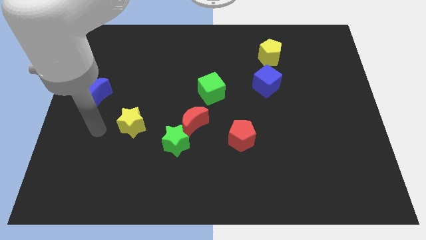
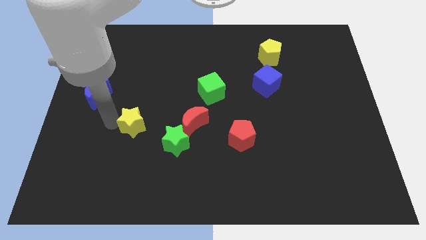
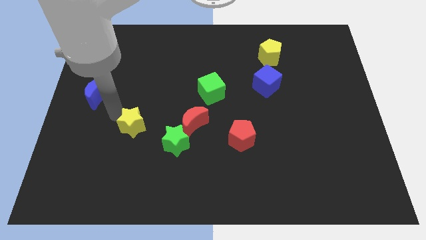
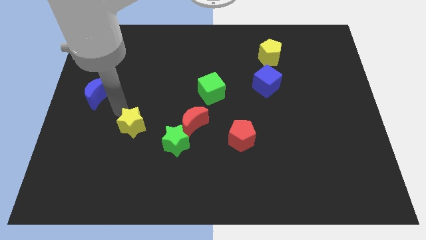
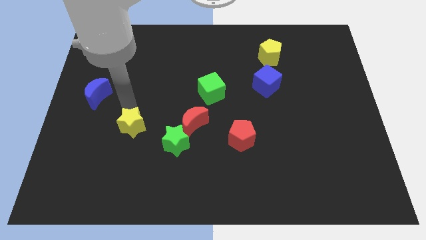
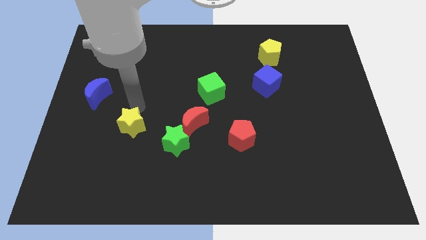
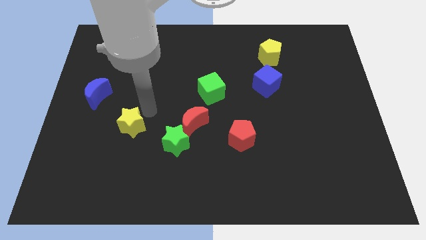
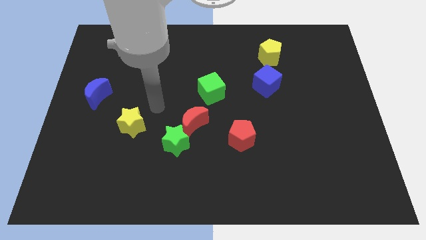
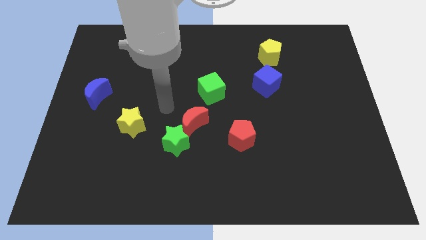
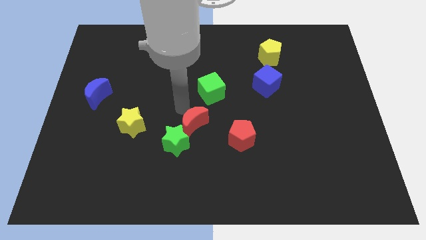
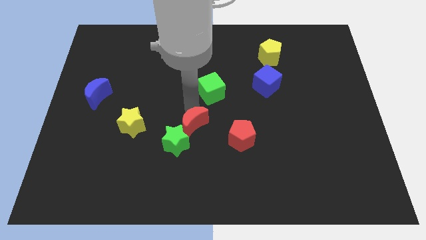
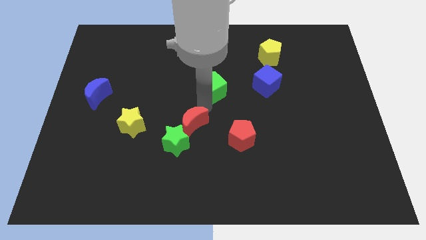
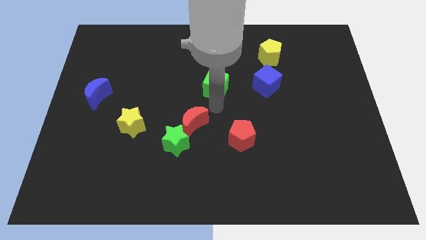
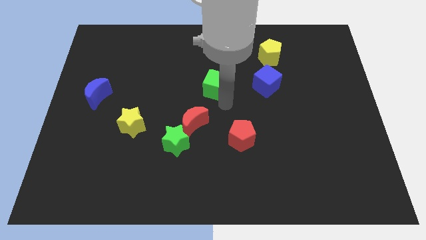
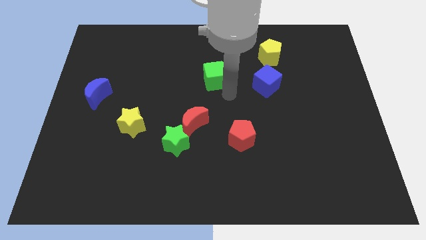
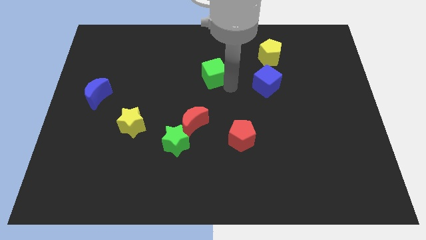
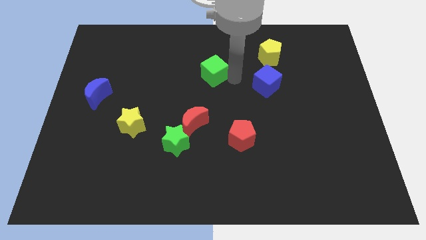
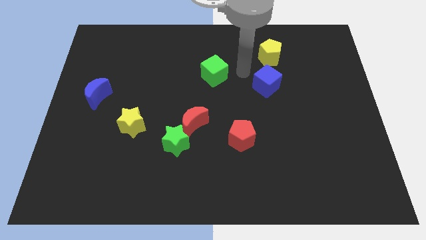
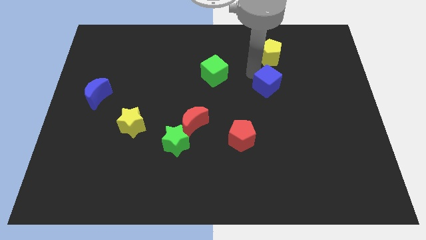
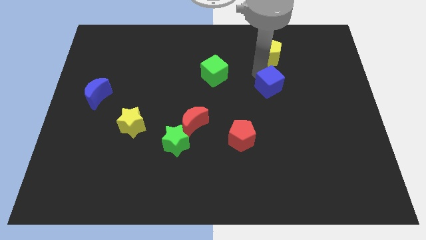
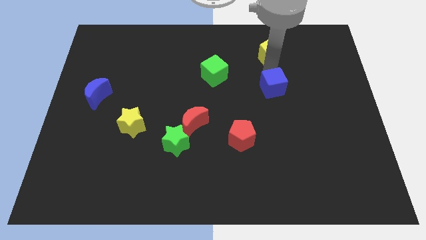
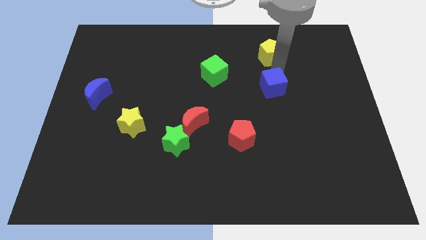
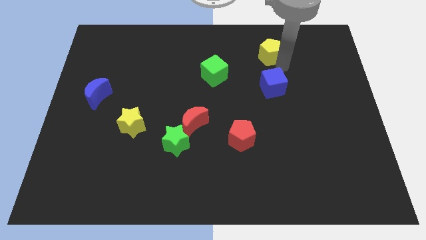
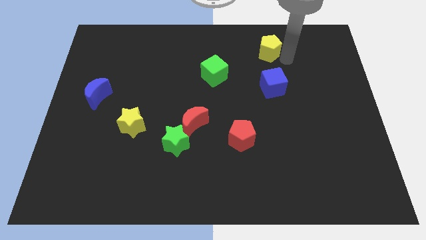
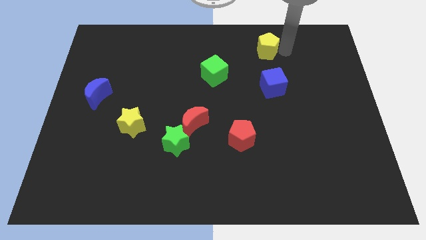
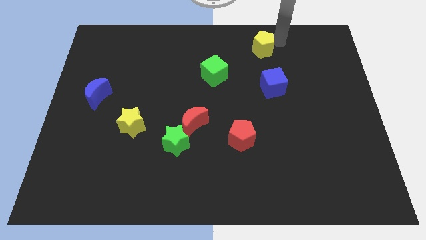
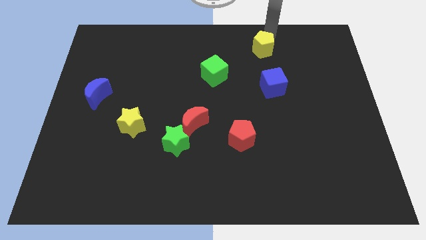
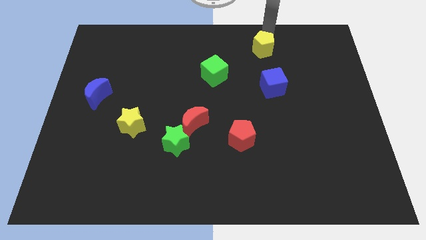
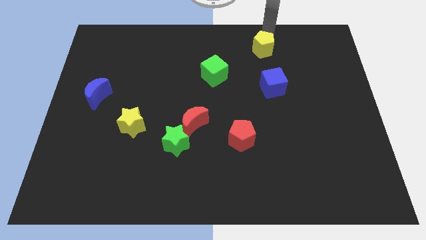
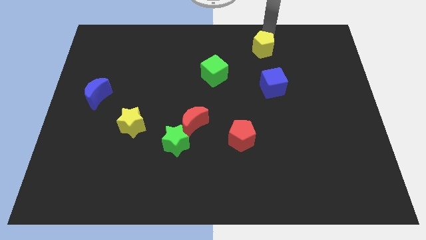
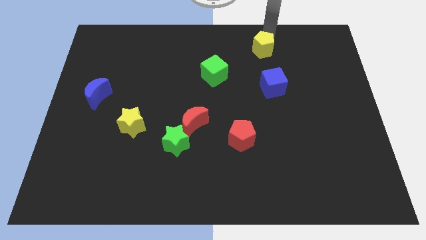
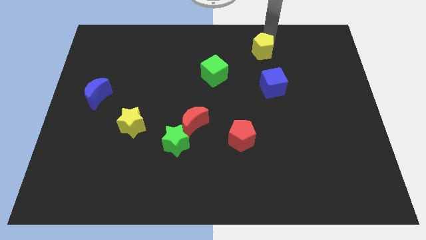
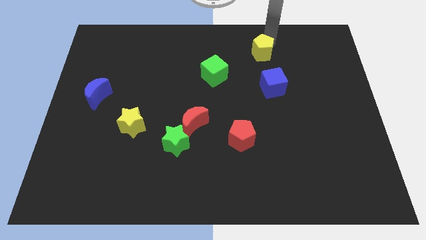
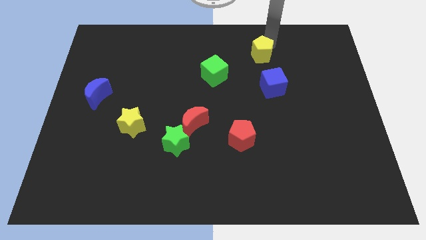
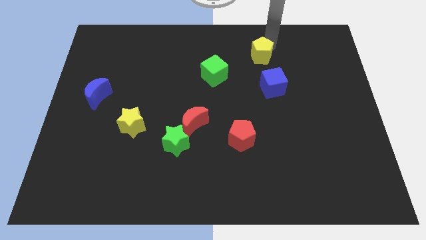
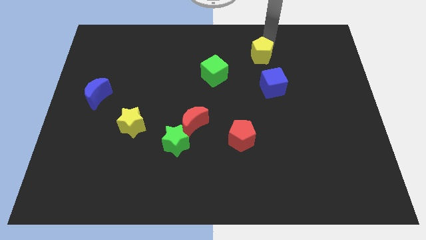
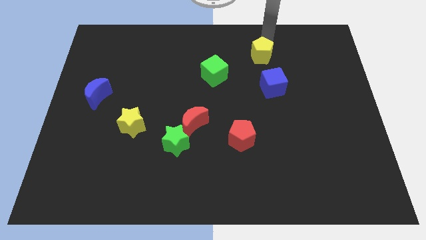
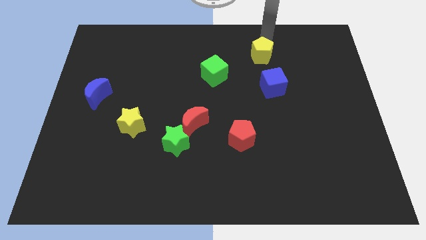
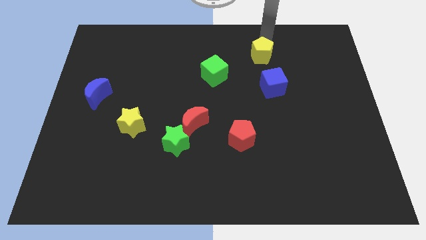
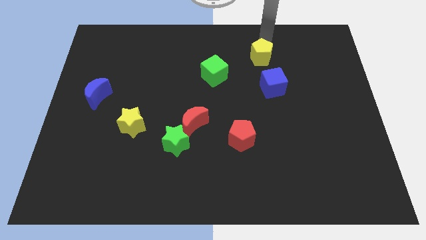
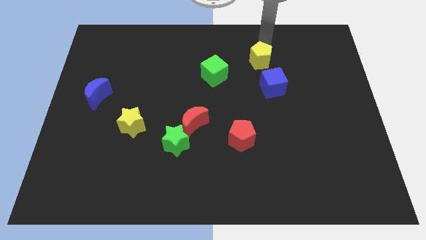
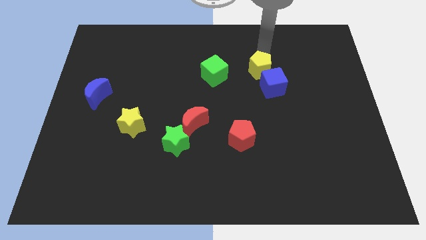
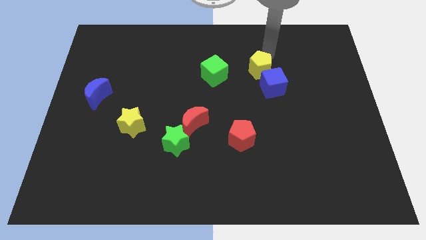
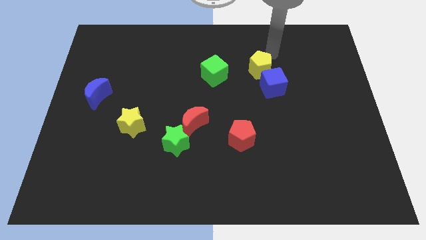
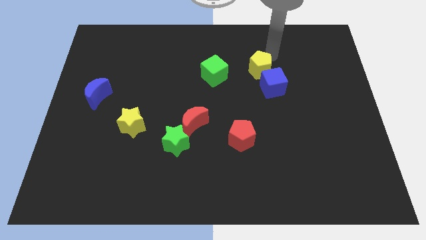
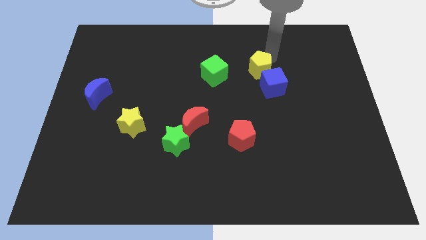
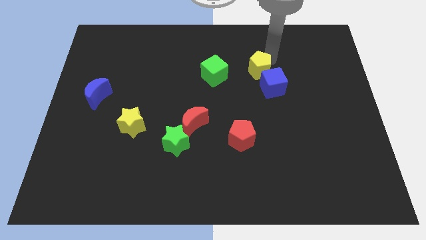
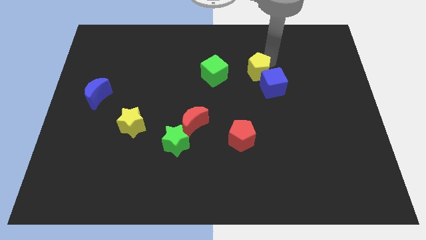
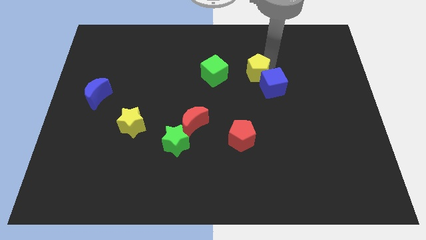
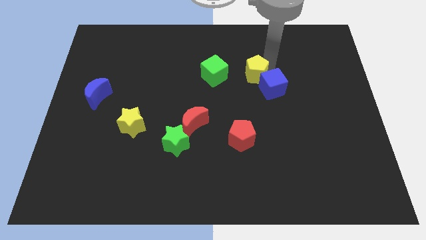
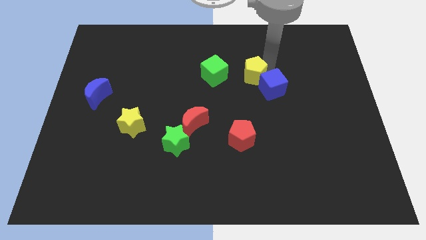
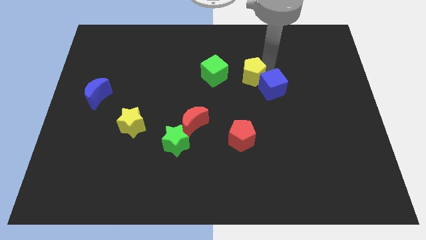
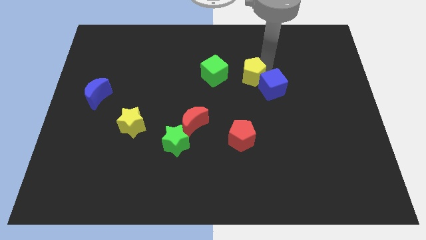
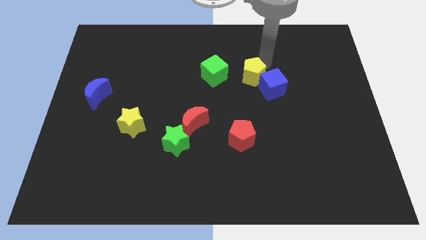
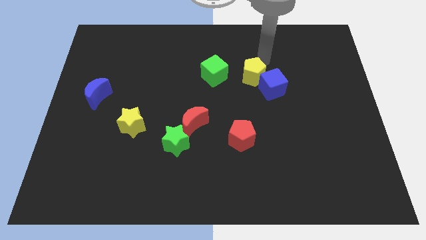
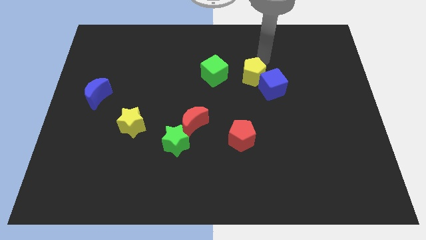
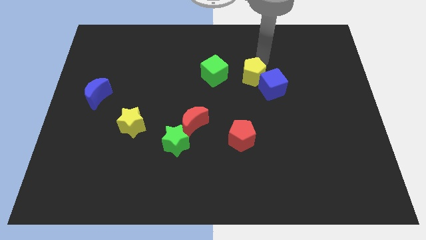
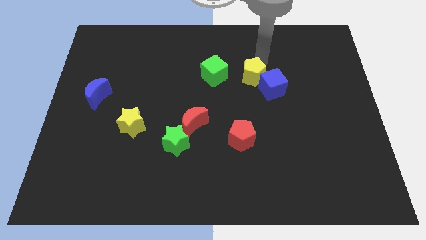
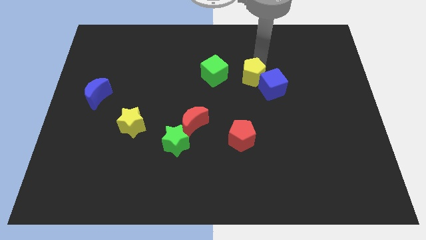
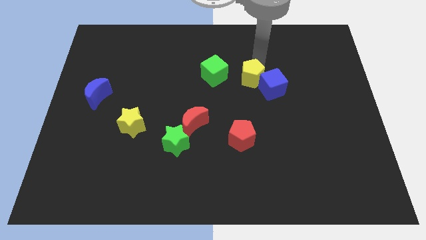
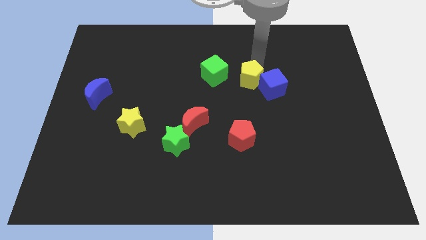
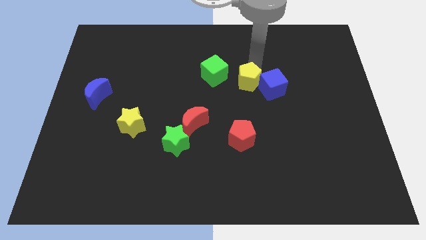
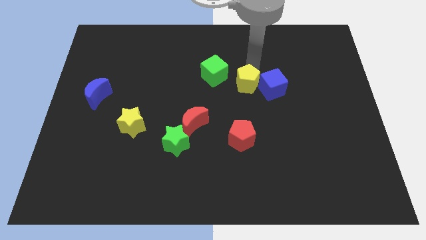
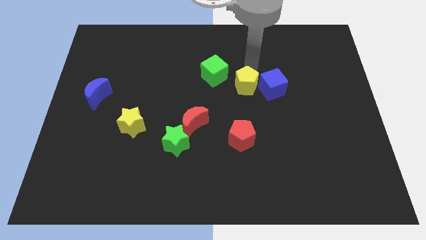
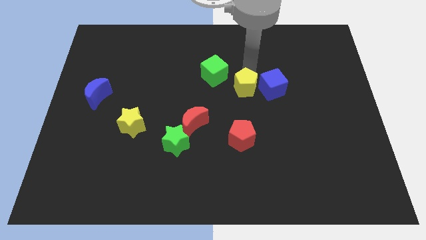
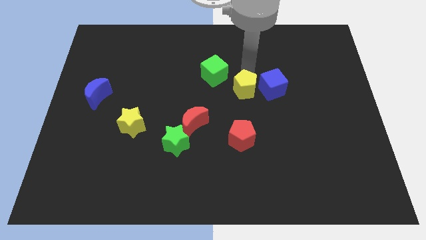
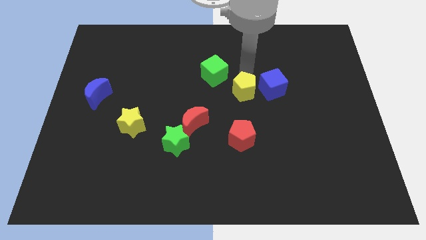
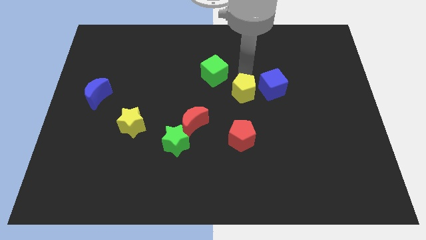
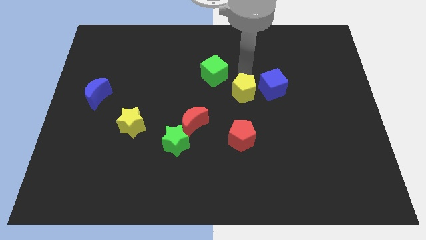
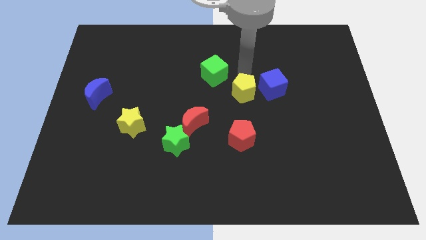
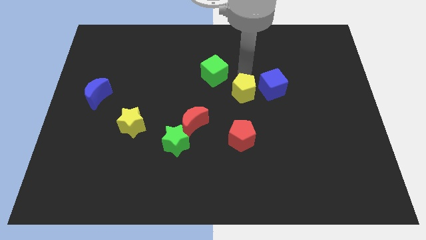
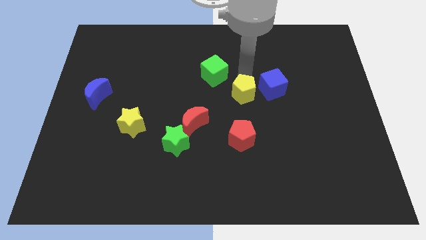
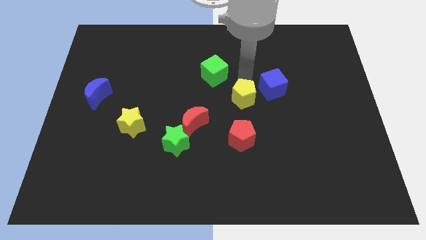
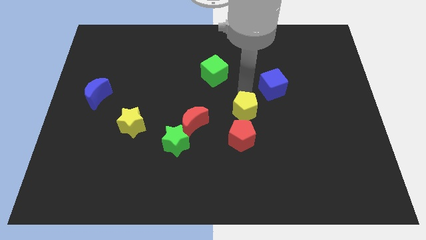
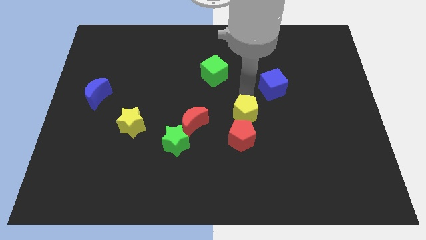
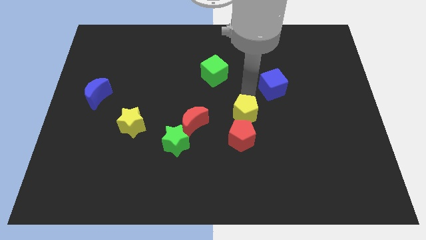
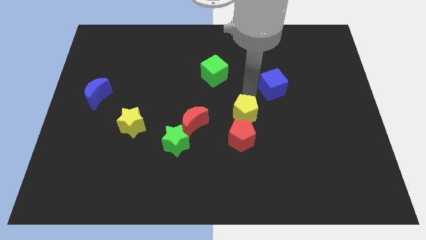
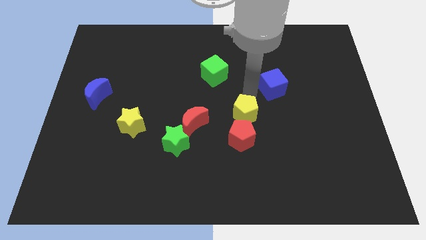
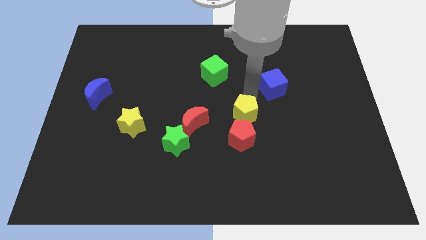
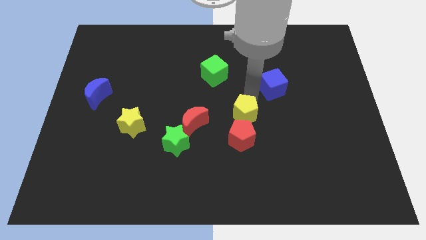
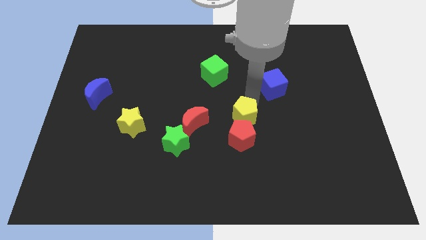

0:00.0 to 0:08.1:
put the yellow pentagon next to the red pentagon
